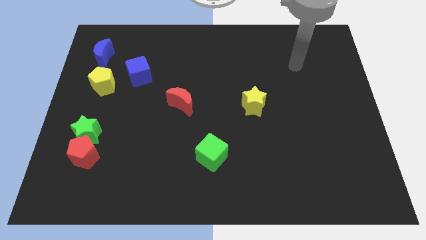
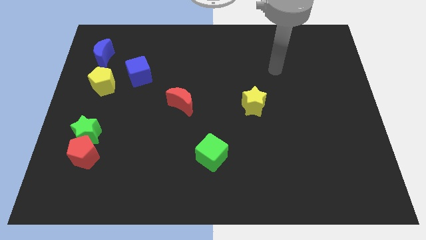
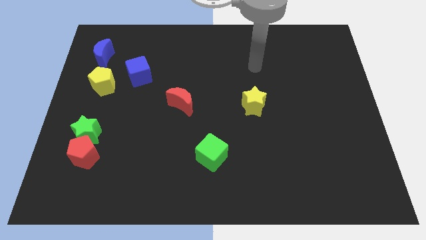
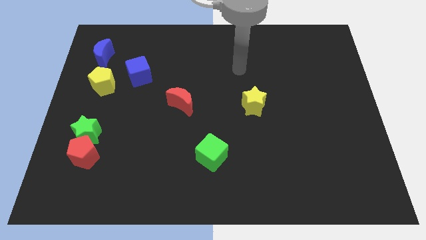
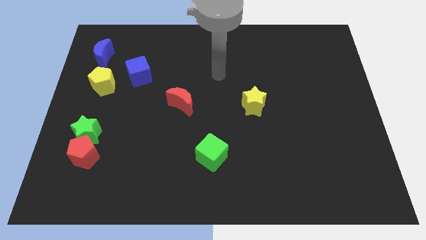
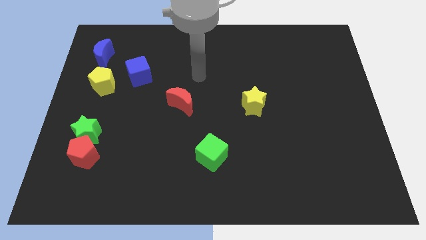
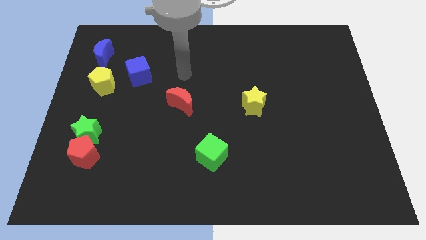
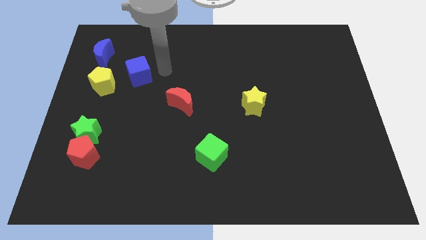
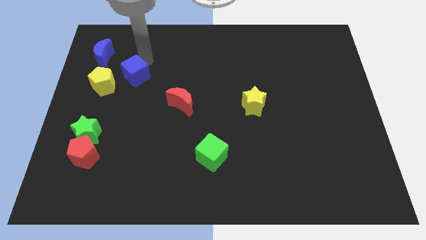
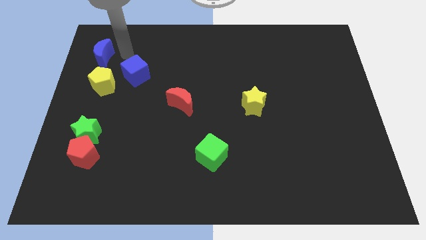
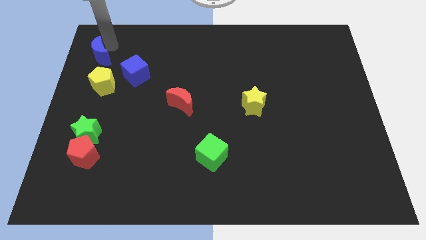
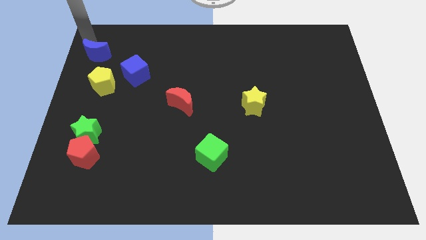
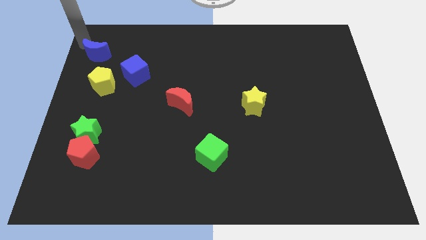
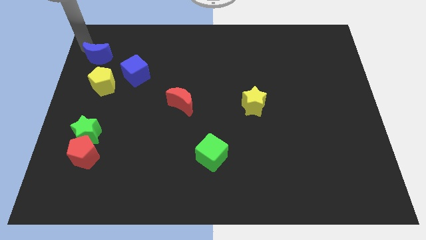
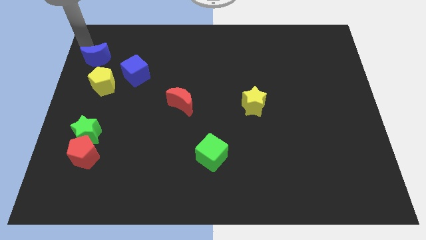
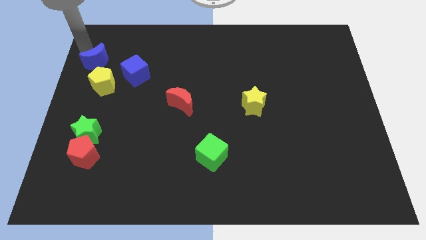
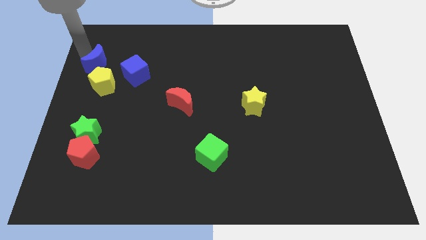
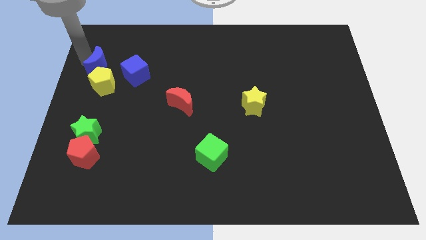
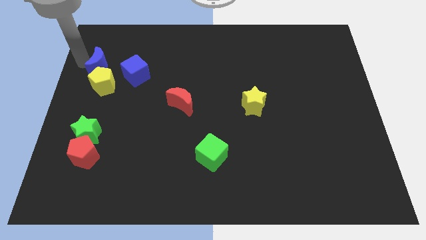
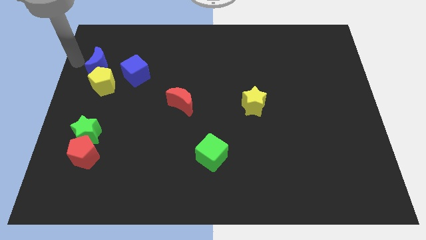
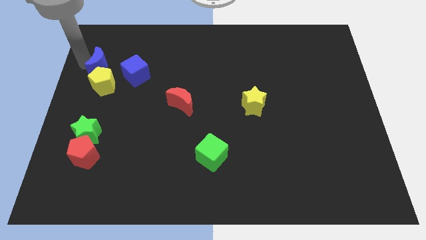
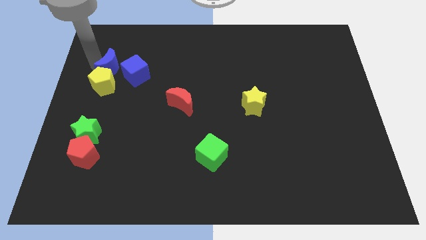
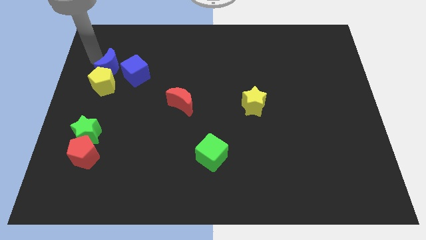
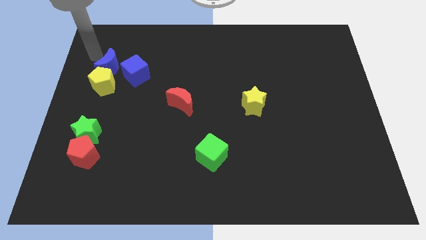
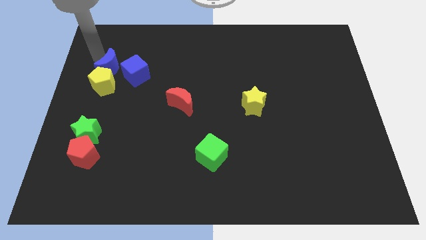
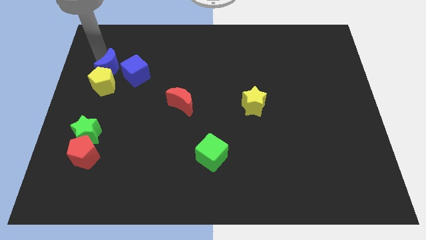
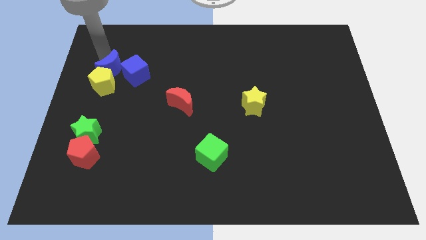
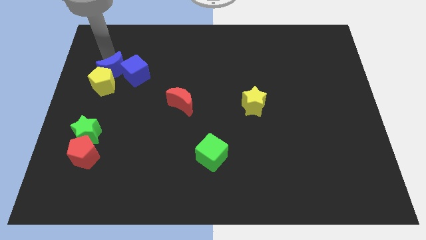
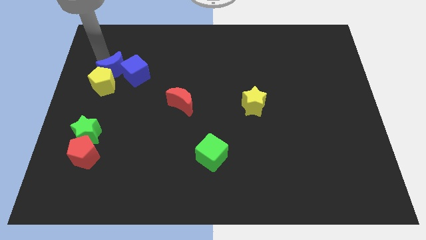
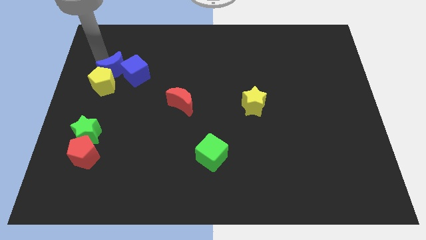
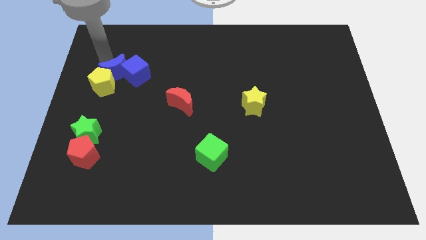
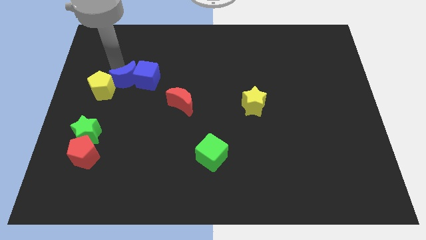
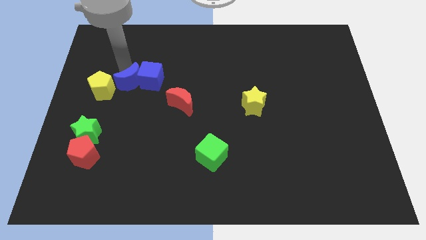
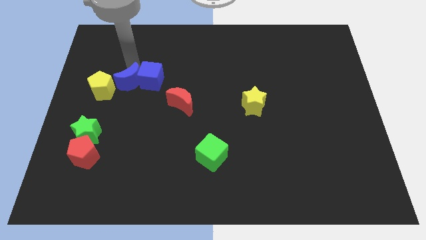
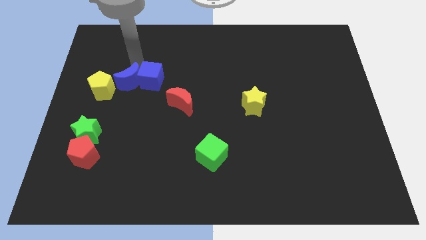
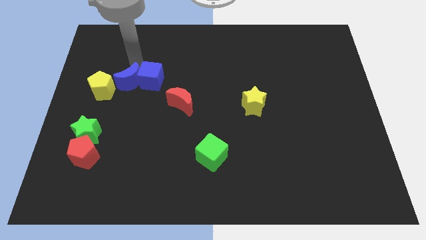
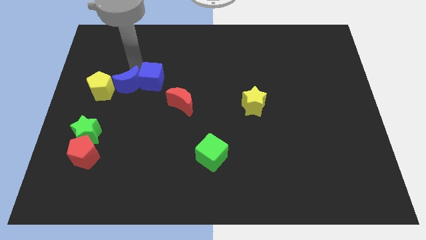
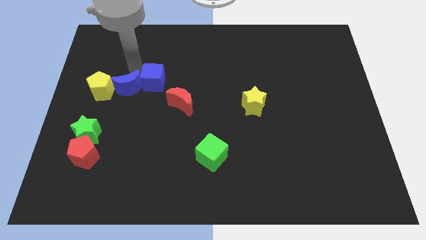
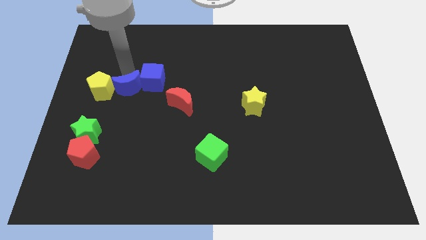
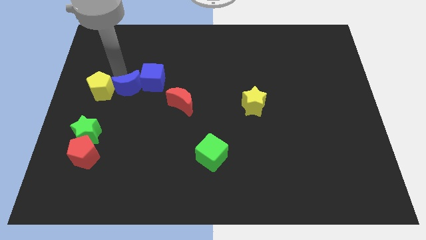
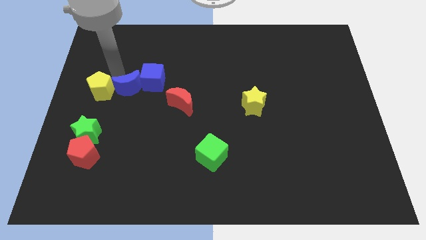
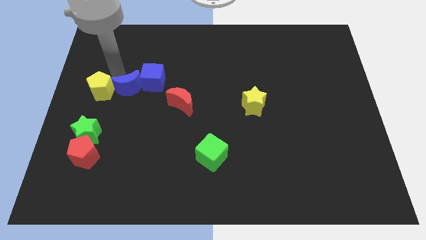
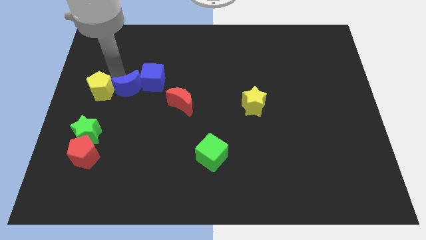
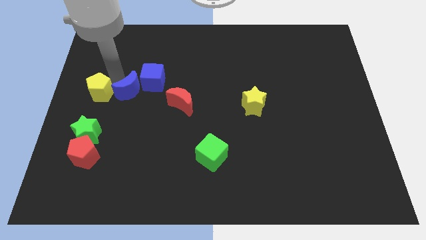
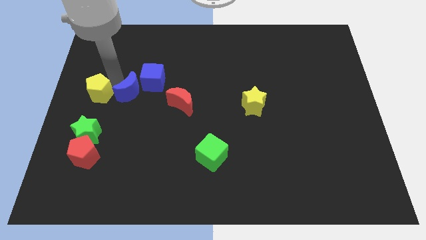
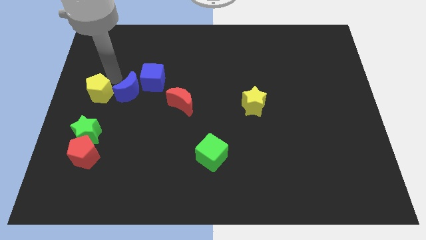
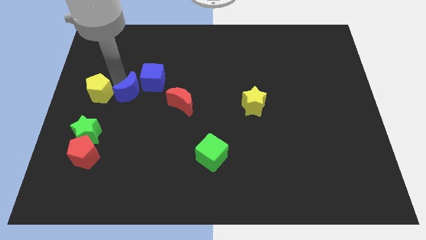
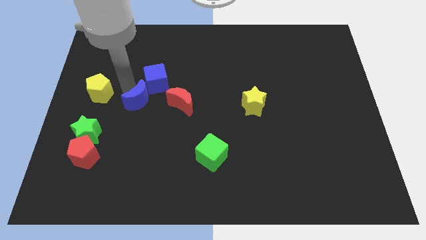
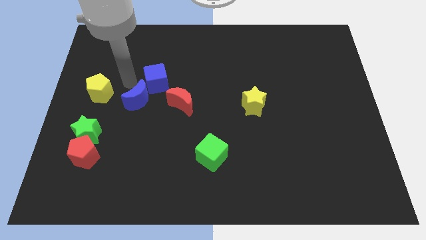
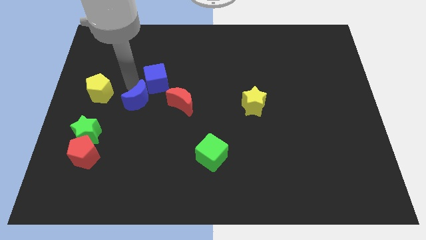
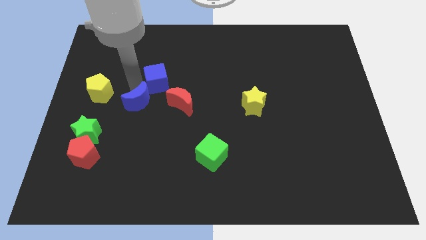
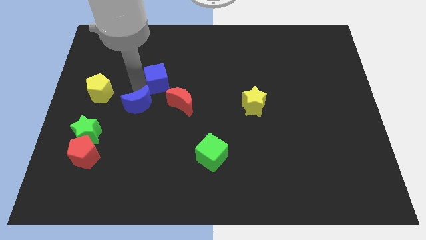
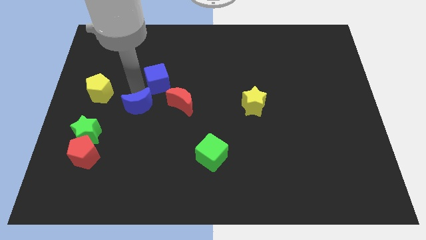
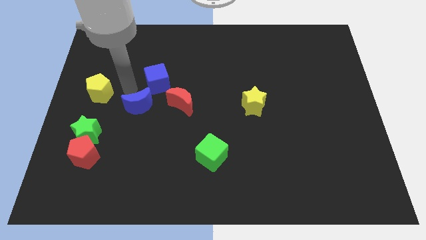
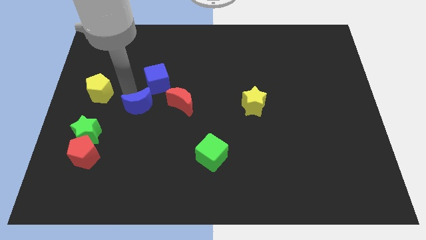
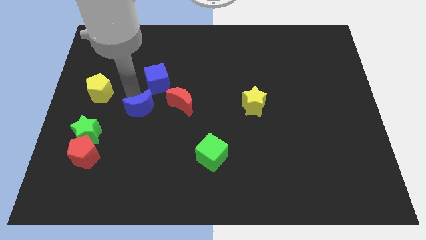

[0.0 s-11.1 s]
move the blue moon diagonally down and to the right

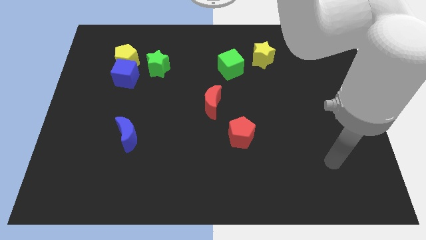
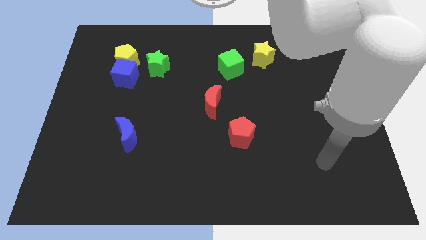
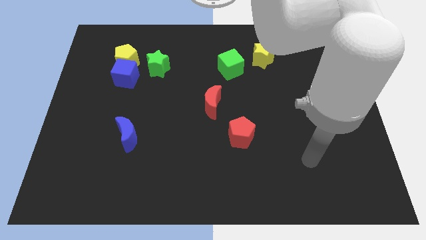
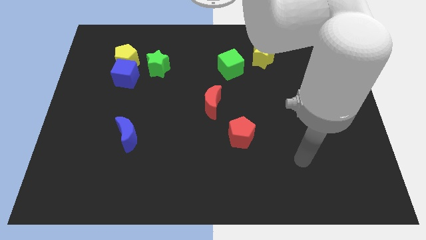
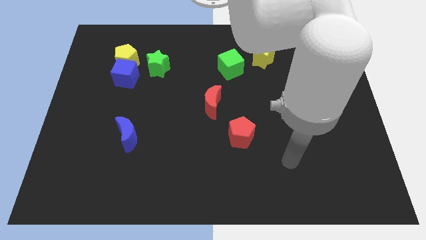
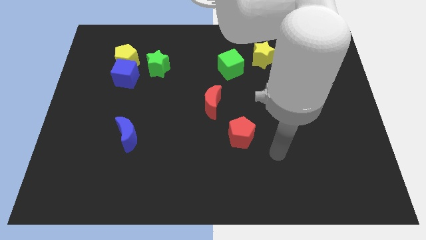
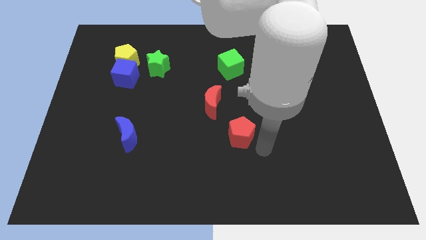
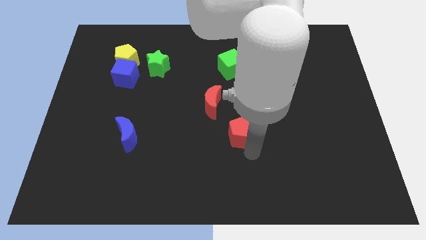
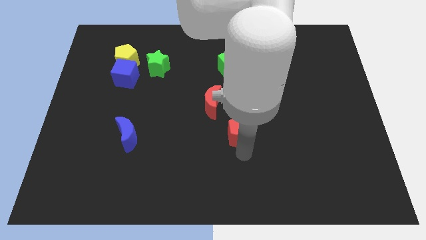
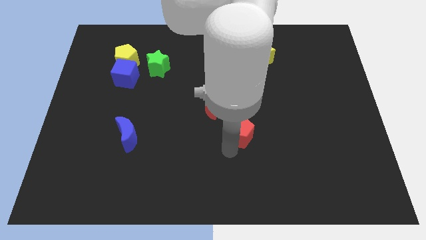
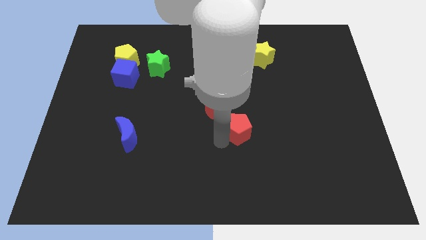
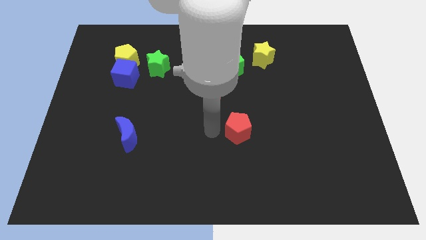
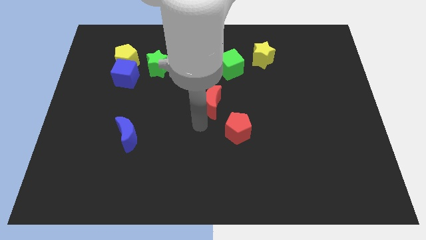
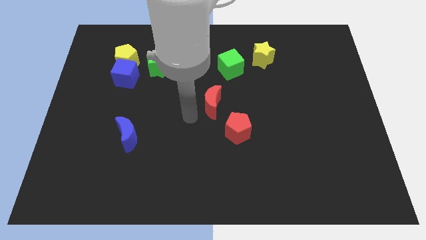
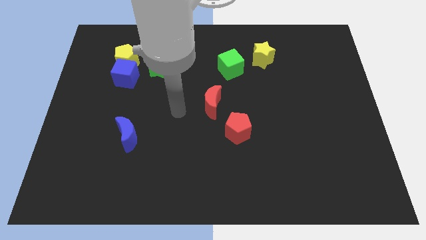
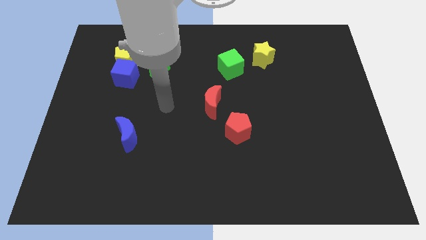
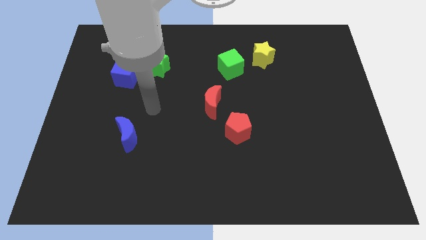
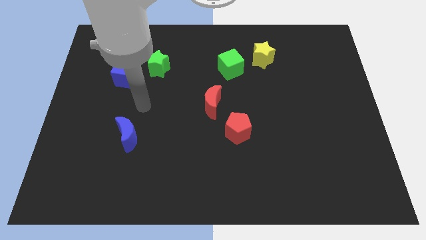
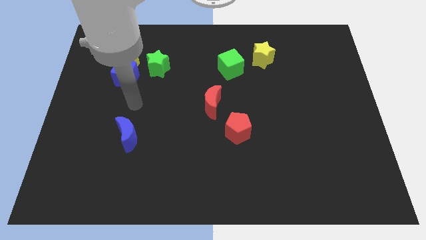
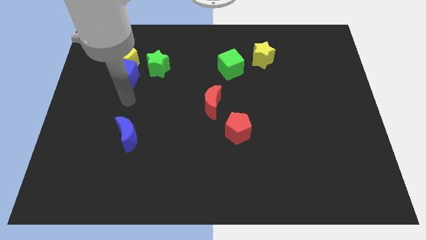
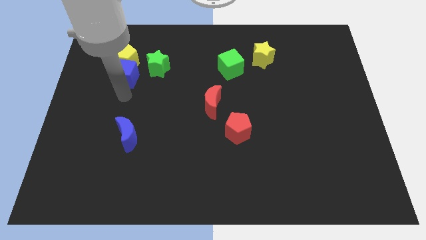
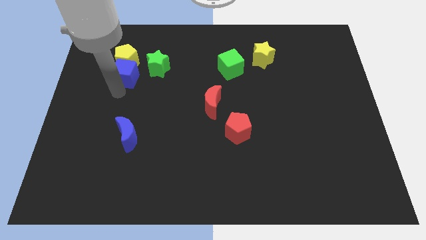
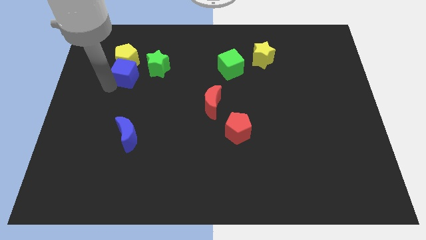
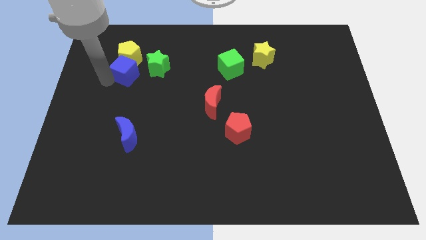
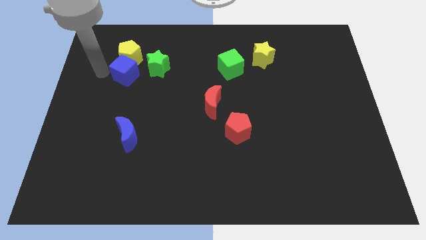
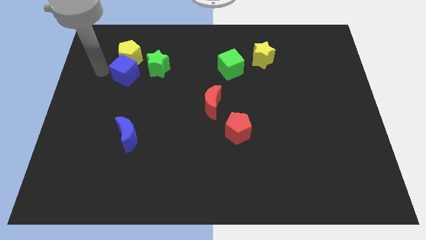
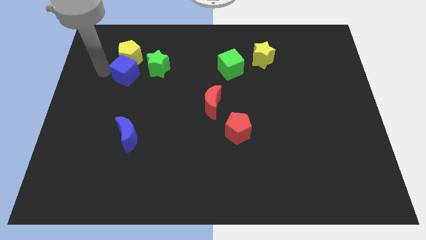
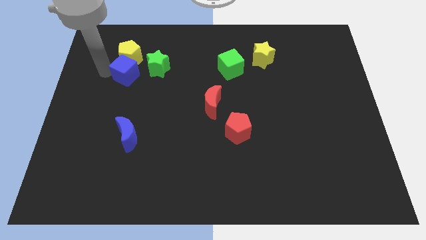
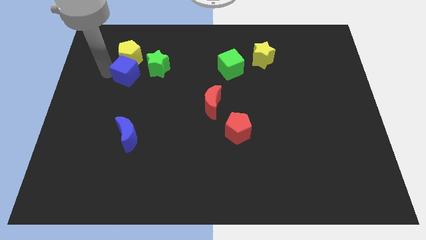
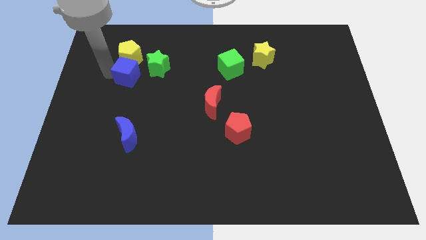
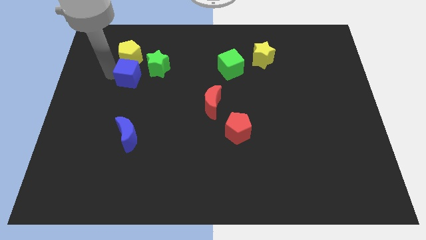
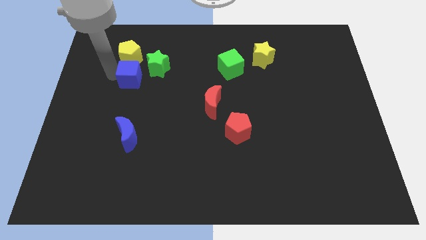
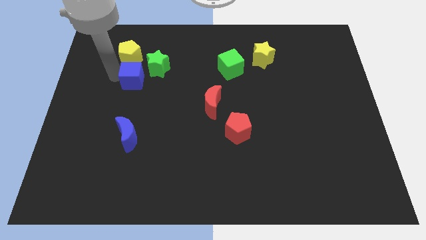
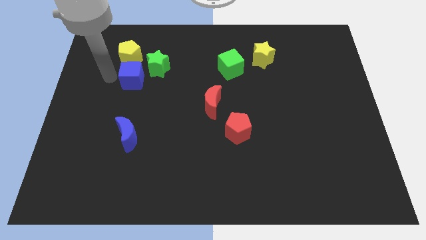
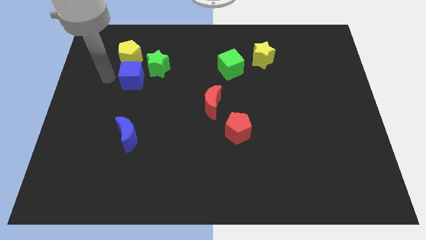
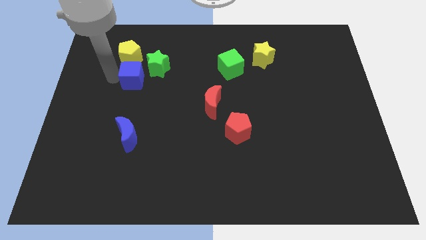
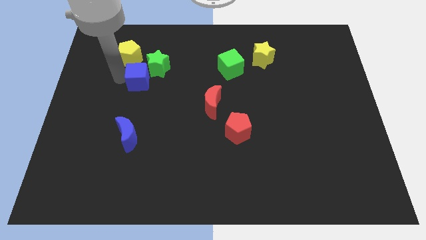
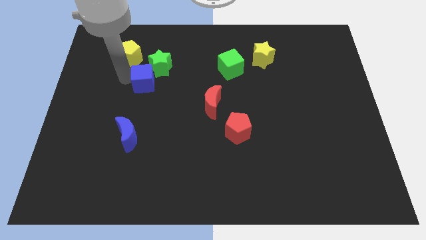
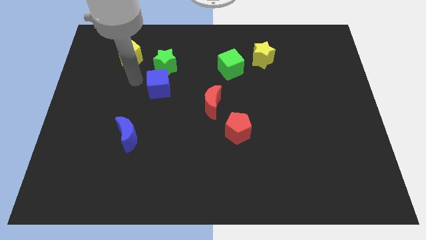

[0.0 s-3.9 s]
slide the blue cube right slightly
